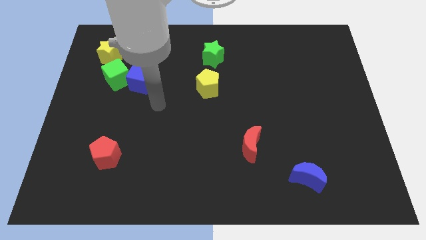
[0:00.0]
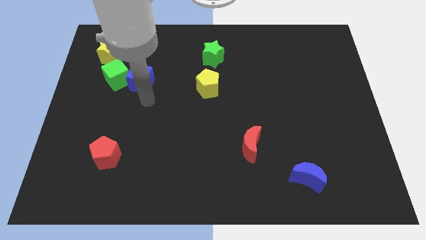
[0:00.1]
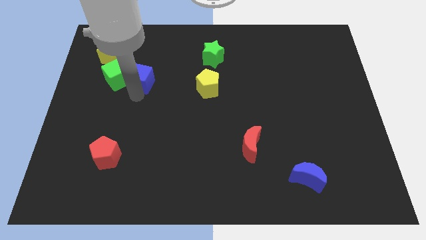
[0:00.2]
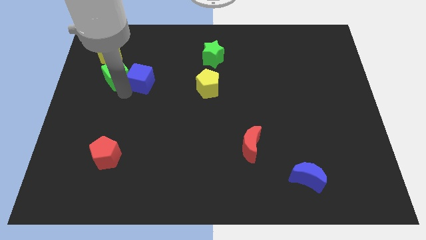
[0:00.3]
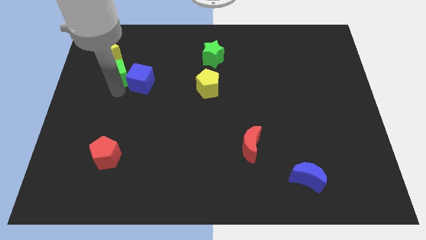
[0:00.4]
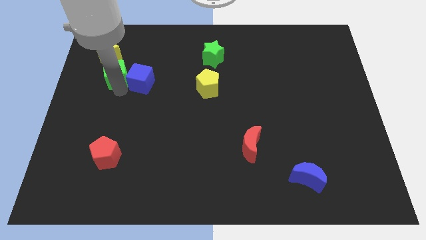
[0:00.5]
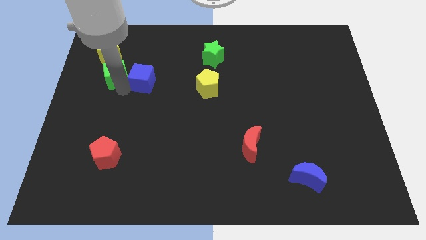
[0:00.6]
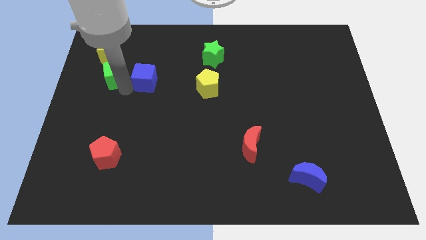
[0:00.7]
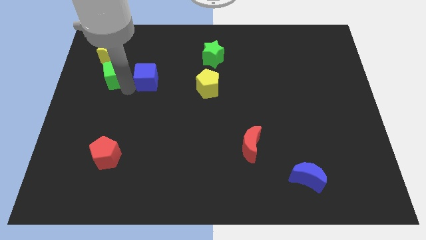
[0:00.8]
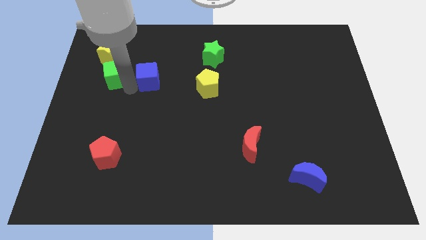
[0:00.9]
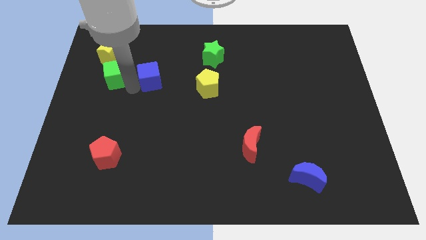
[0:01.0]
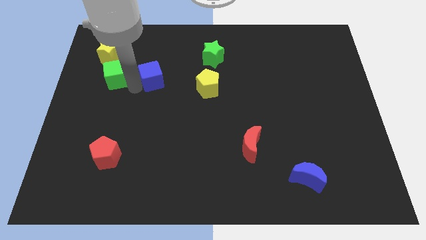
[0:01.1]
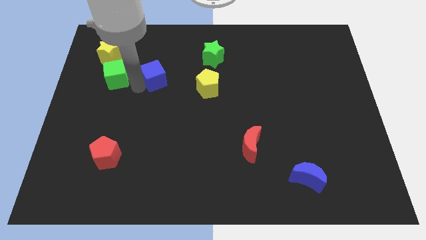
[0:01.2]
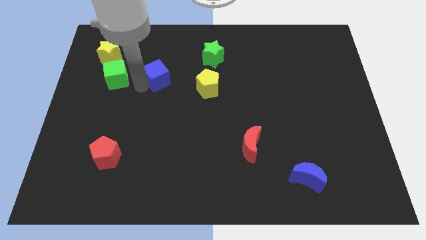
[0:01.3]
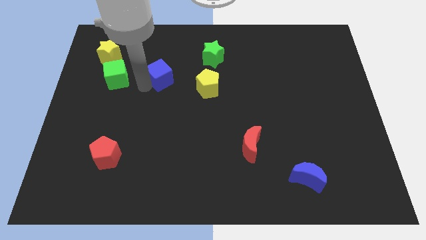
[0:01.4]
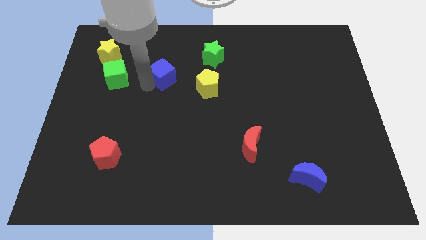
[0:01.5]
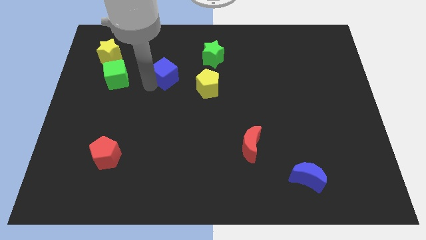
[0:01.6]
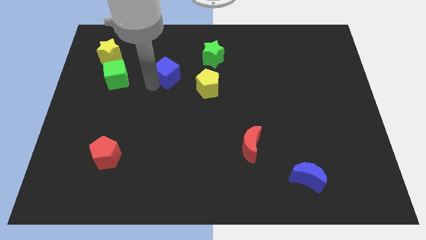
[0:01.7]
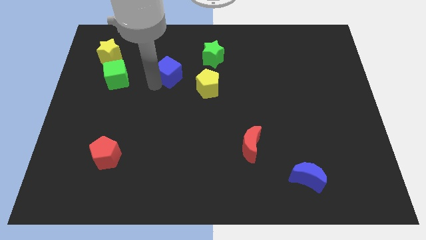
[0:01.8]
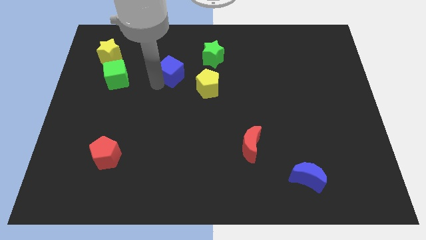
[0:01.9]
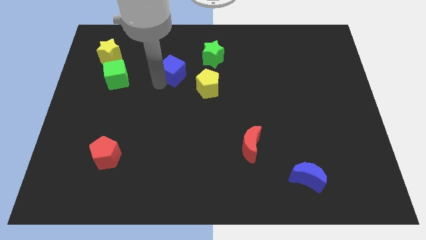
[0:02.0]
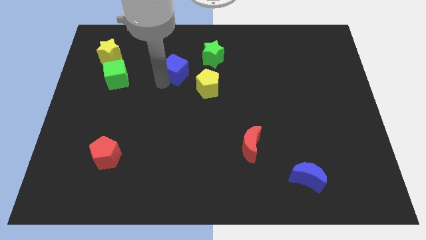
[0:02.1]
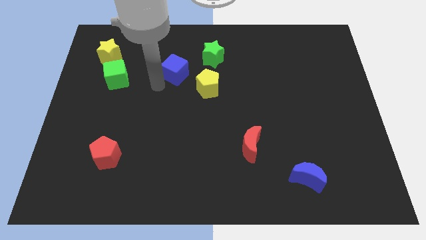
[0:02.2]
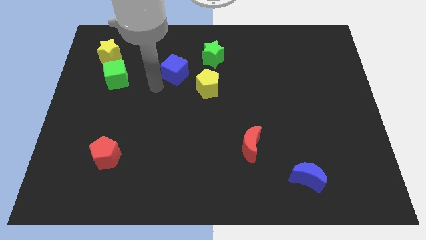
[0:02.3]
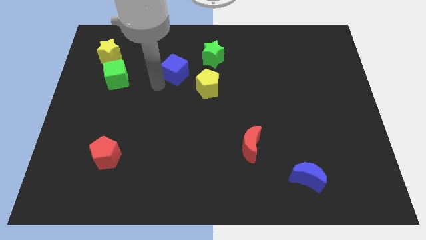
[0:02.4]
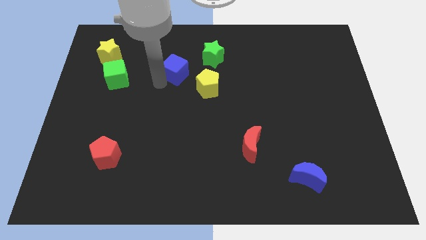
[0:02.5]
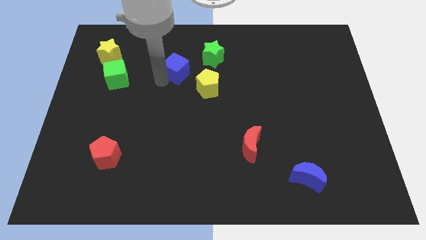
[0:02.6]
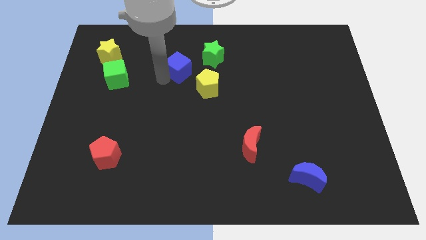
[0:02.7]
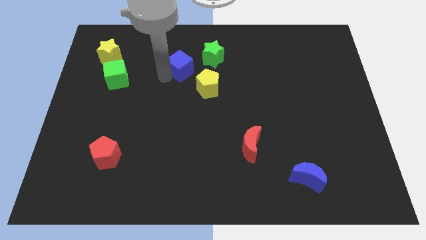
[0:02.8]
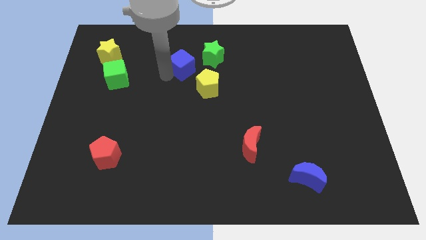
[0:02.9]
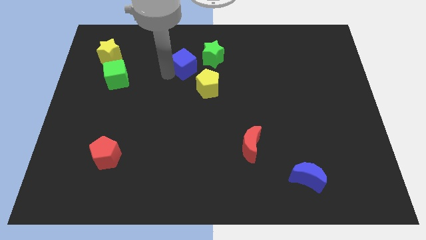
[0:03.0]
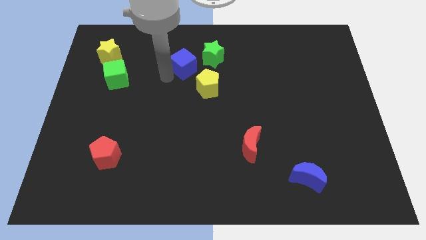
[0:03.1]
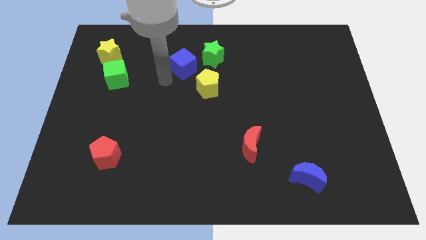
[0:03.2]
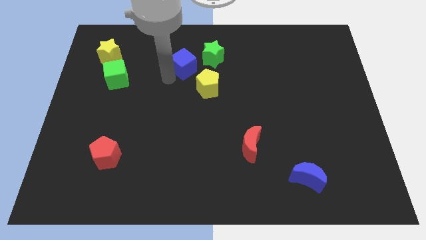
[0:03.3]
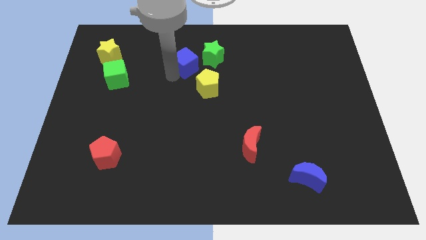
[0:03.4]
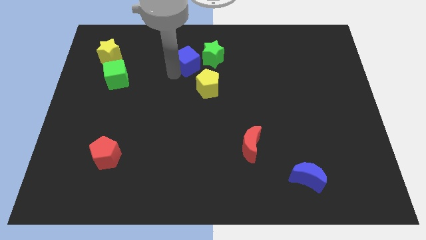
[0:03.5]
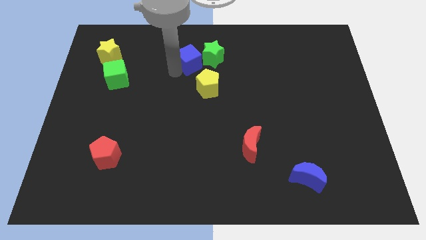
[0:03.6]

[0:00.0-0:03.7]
push the blue cube towards the green star

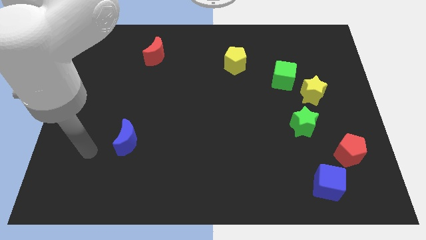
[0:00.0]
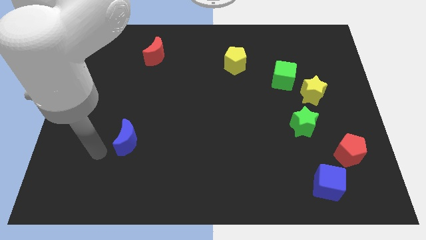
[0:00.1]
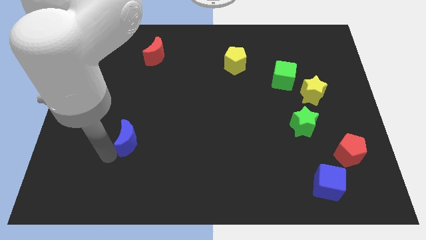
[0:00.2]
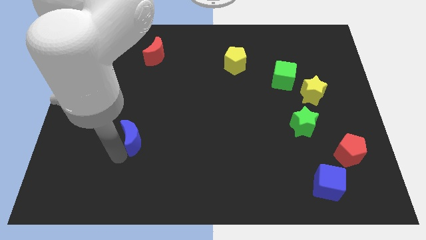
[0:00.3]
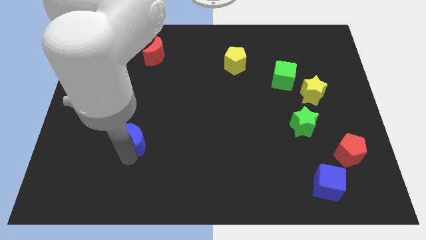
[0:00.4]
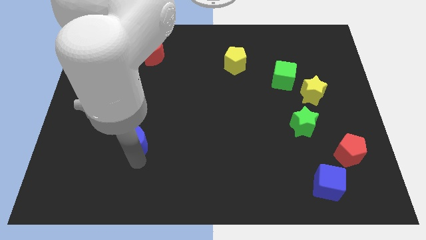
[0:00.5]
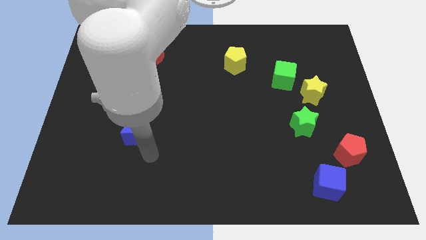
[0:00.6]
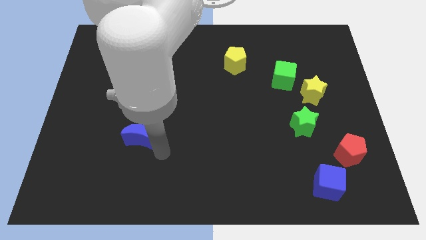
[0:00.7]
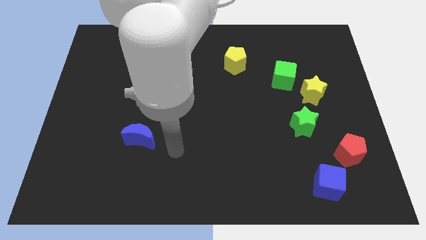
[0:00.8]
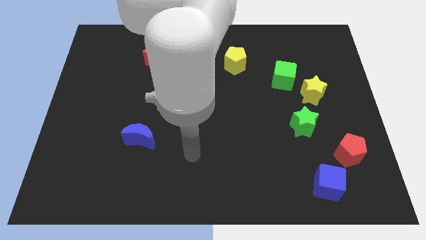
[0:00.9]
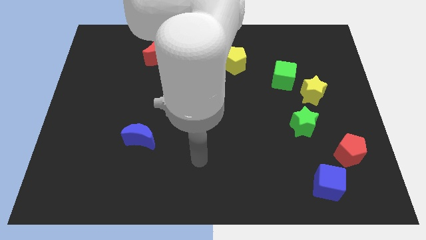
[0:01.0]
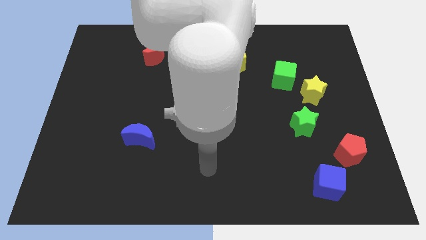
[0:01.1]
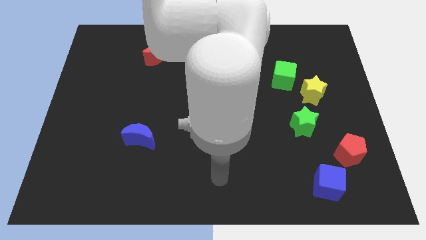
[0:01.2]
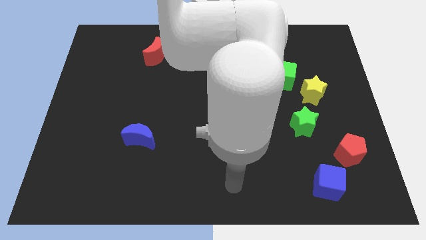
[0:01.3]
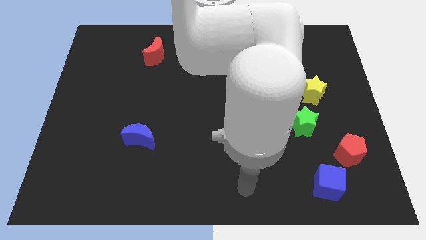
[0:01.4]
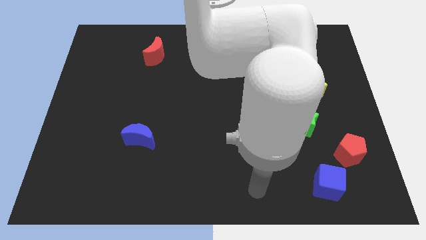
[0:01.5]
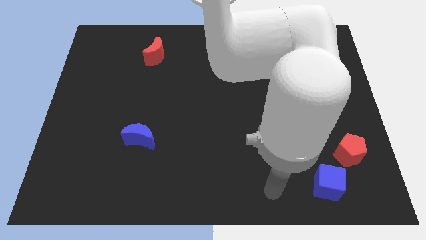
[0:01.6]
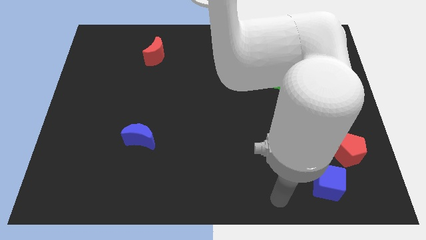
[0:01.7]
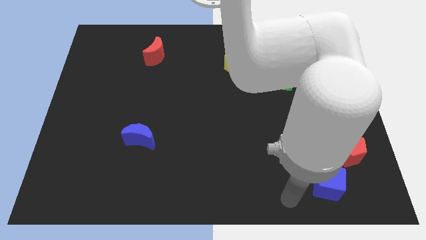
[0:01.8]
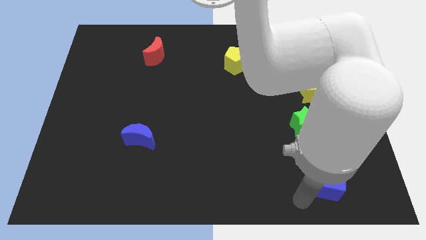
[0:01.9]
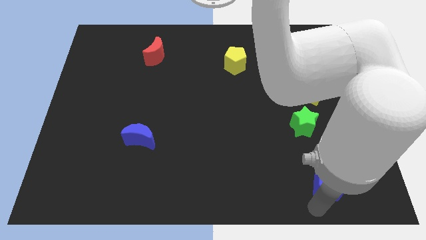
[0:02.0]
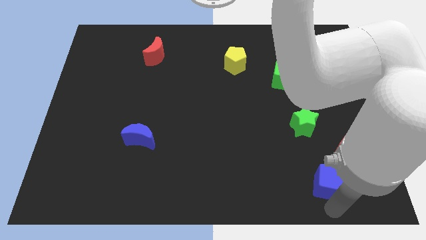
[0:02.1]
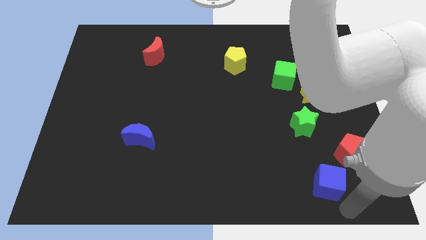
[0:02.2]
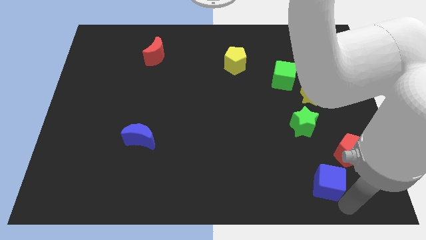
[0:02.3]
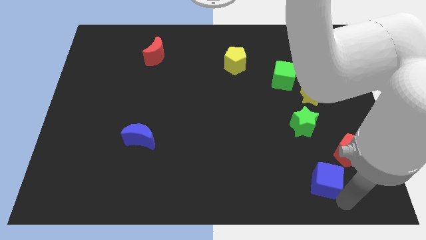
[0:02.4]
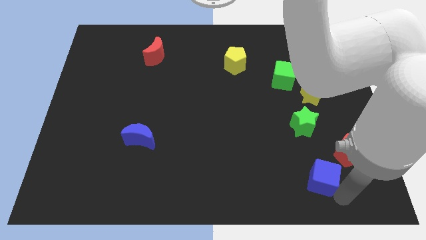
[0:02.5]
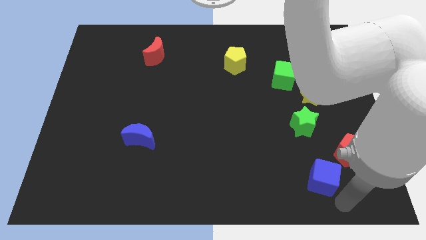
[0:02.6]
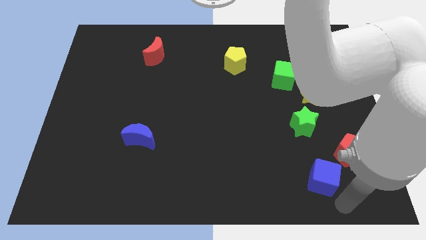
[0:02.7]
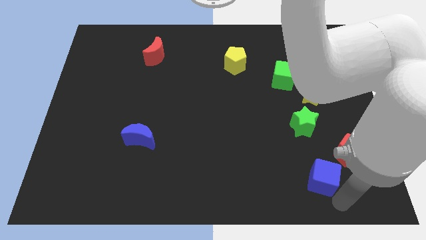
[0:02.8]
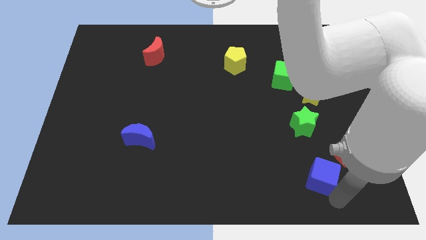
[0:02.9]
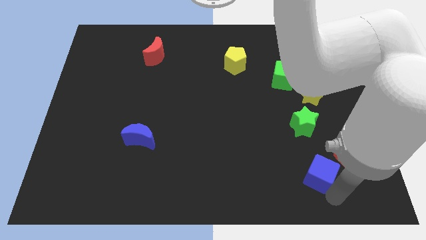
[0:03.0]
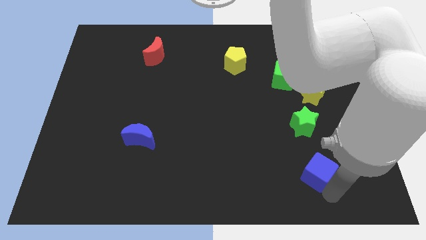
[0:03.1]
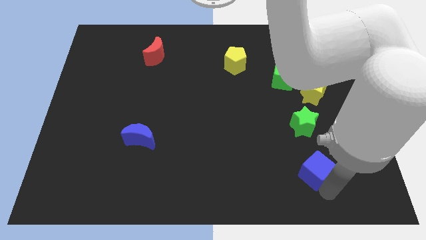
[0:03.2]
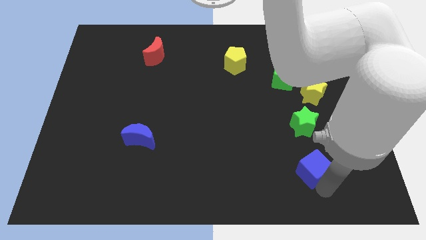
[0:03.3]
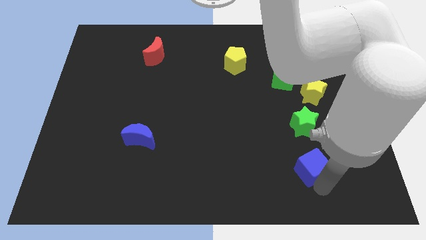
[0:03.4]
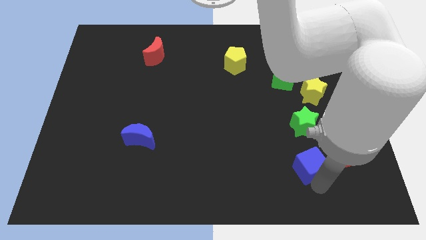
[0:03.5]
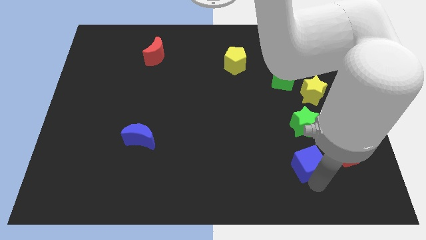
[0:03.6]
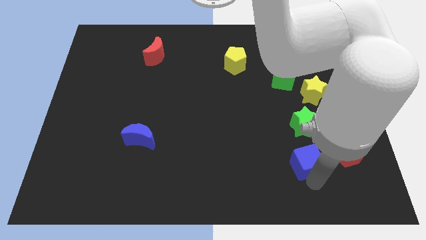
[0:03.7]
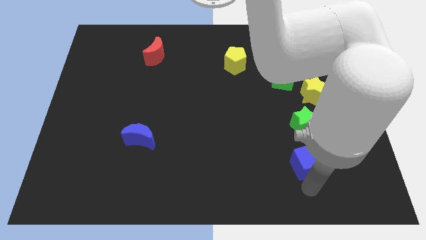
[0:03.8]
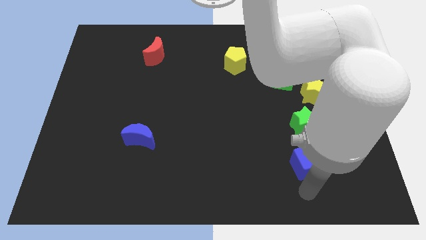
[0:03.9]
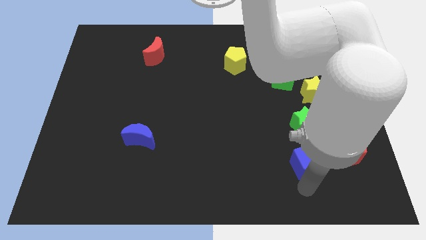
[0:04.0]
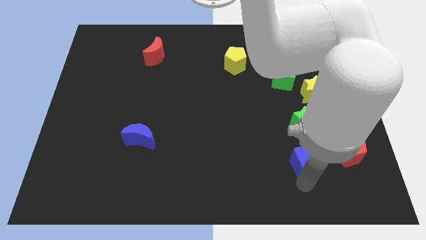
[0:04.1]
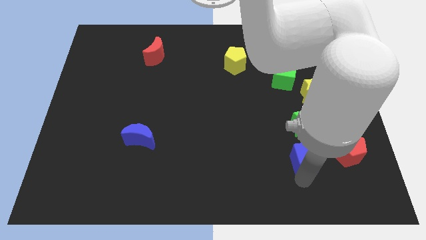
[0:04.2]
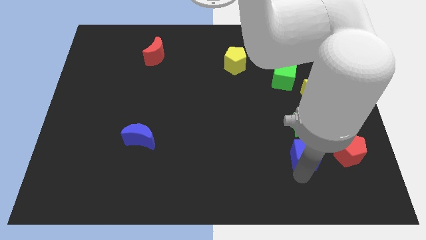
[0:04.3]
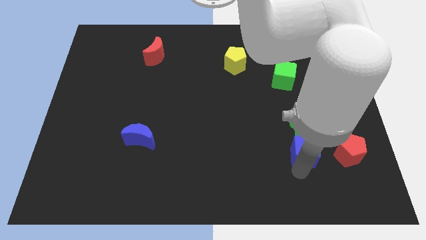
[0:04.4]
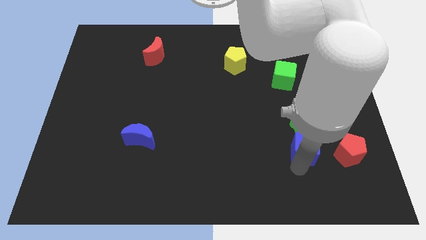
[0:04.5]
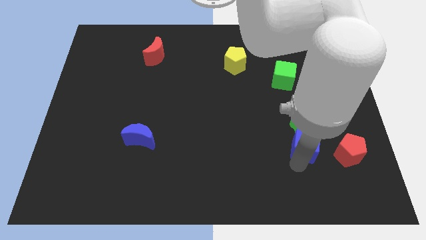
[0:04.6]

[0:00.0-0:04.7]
put the blue cube towards the green star
